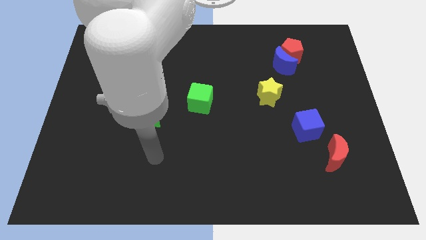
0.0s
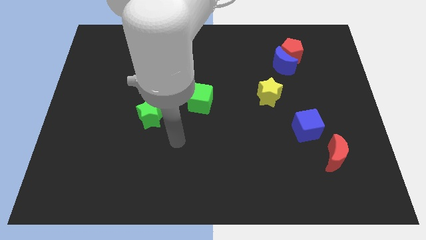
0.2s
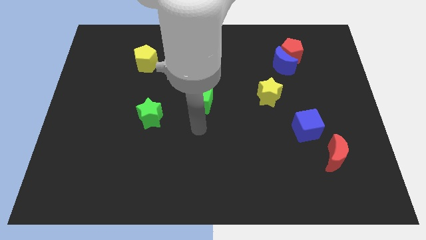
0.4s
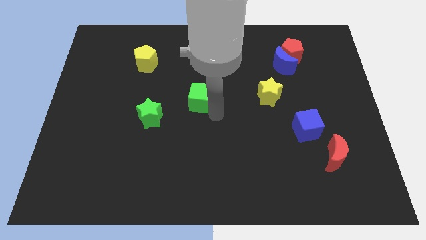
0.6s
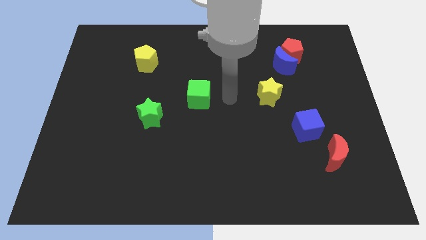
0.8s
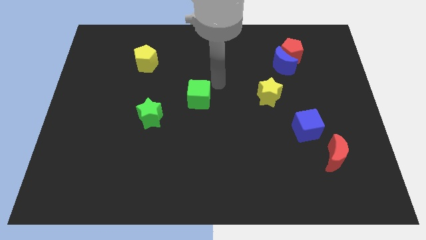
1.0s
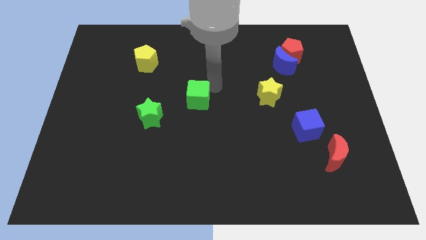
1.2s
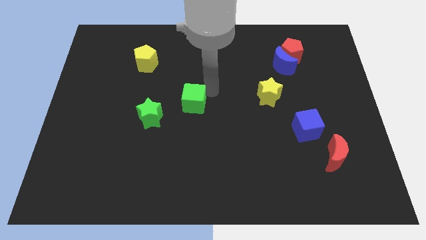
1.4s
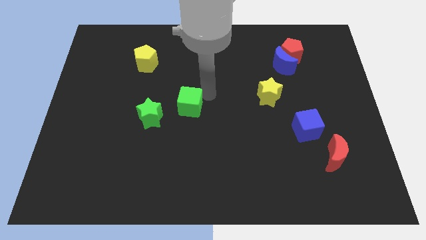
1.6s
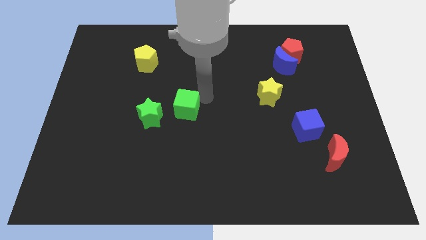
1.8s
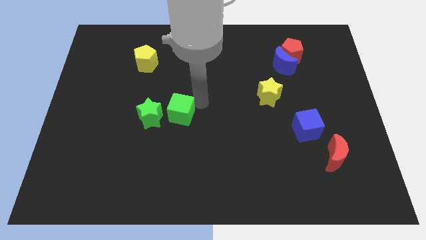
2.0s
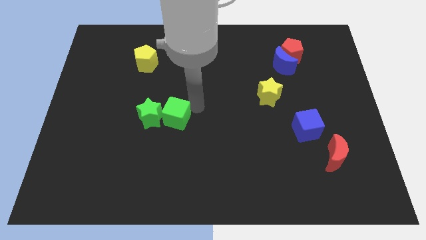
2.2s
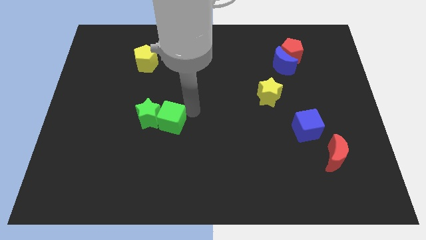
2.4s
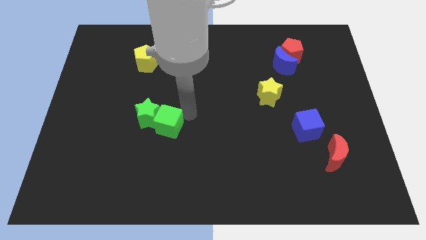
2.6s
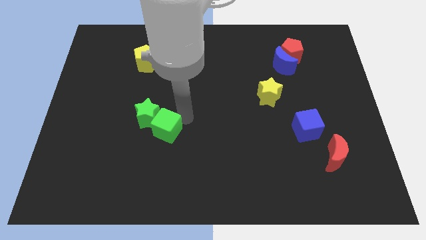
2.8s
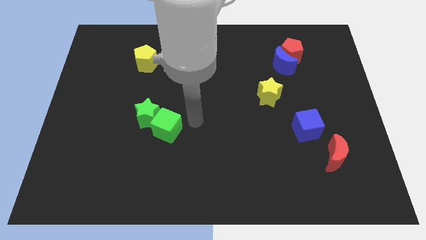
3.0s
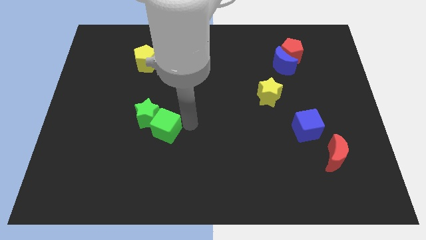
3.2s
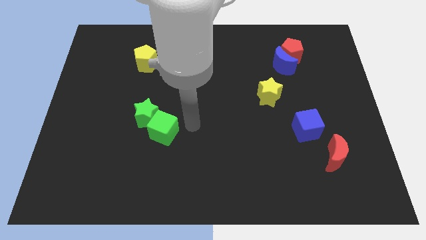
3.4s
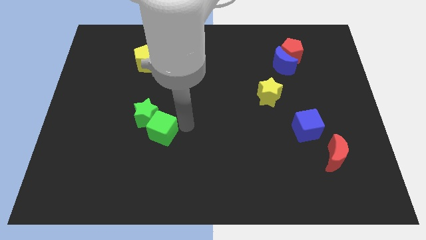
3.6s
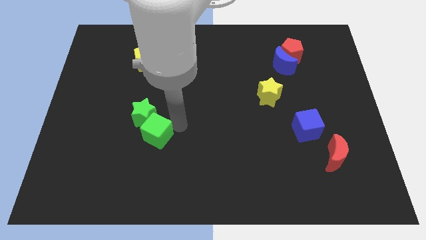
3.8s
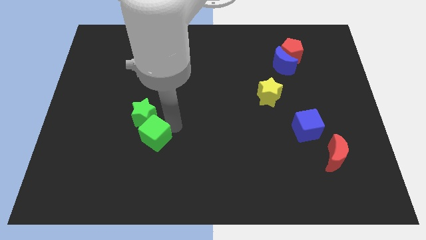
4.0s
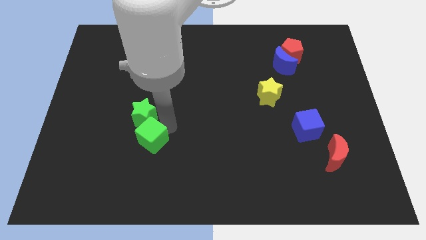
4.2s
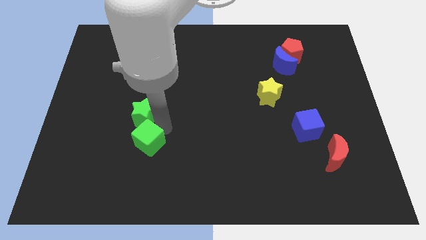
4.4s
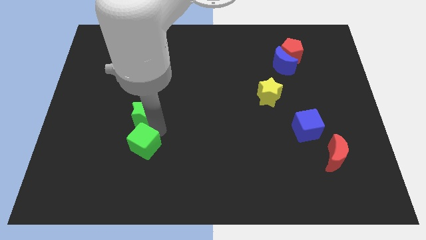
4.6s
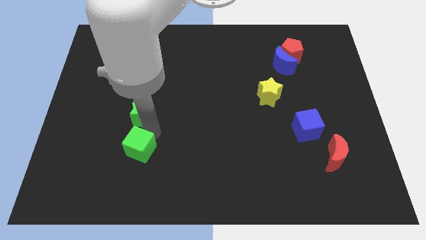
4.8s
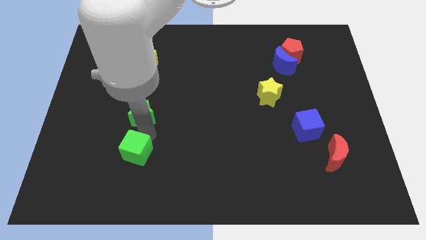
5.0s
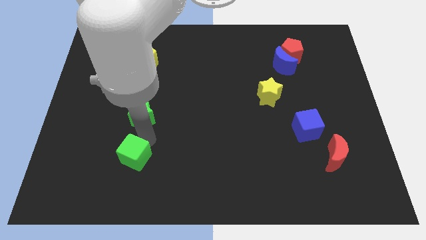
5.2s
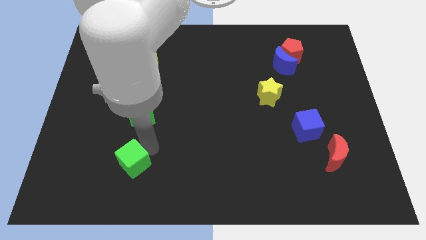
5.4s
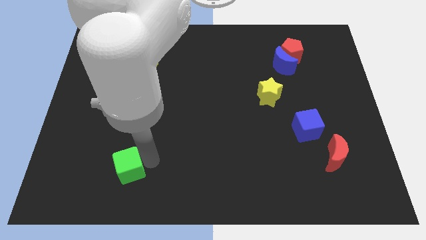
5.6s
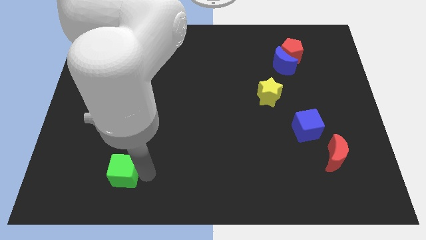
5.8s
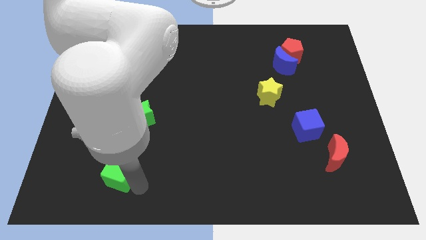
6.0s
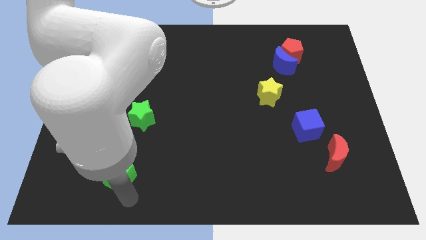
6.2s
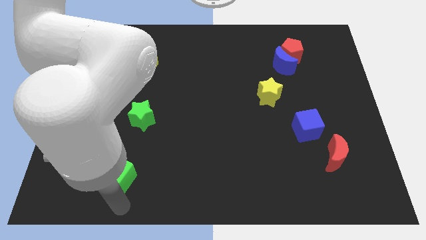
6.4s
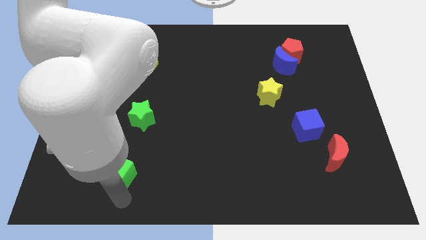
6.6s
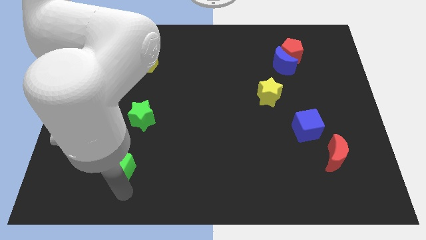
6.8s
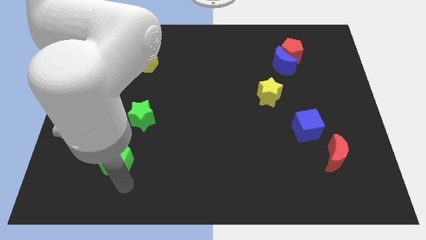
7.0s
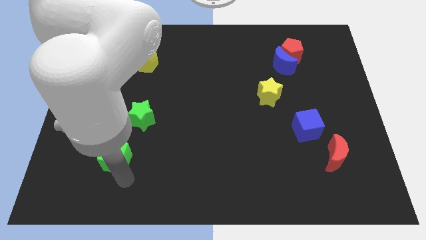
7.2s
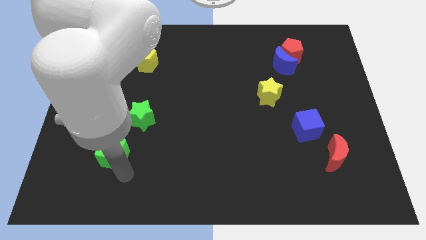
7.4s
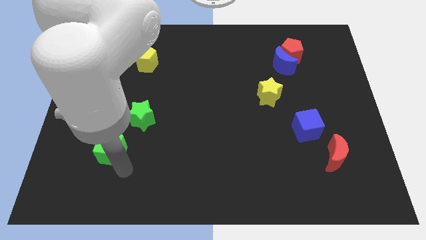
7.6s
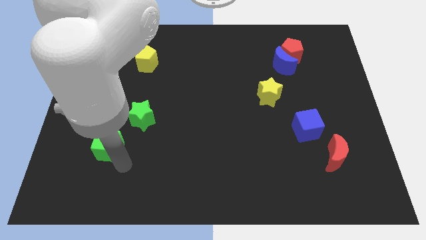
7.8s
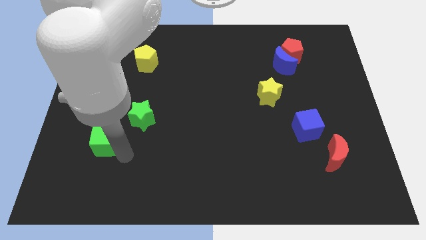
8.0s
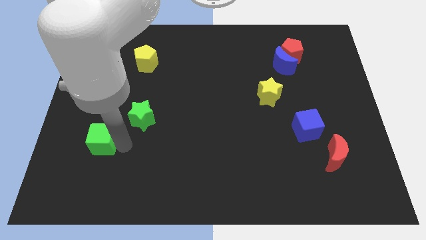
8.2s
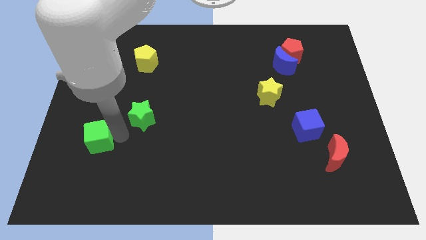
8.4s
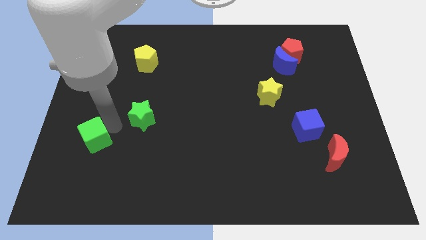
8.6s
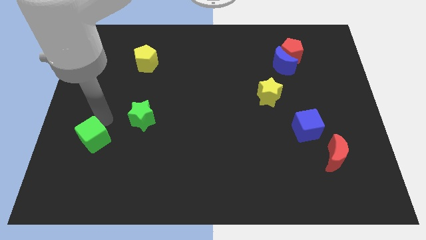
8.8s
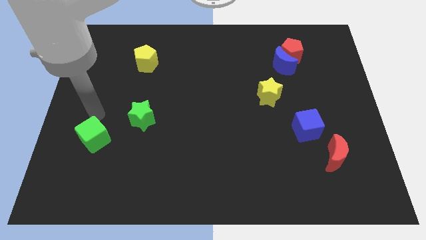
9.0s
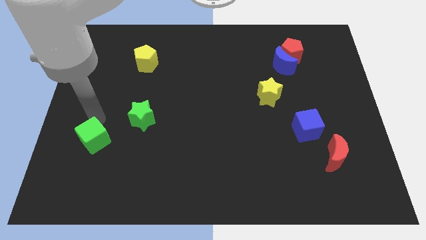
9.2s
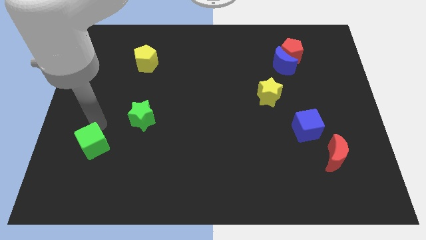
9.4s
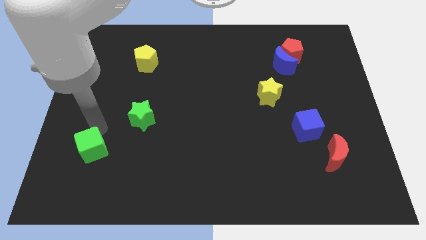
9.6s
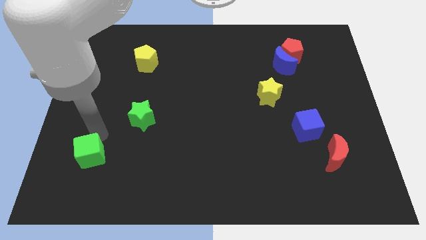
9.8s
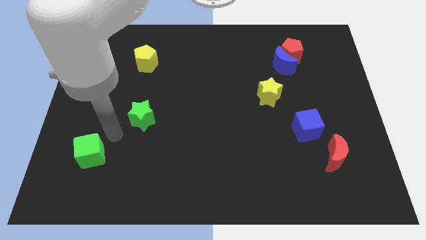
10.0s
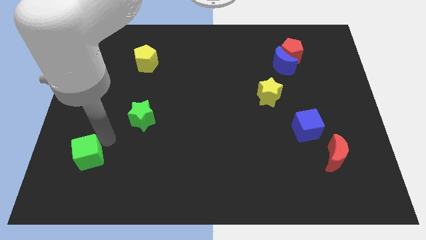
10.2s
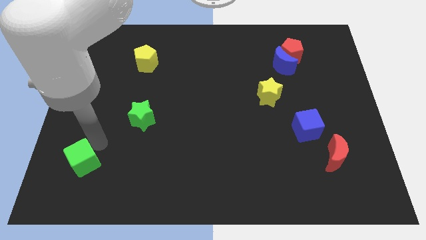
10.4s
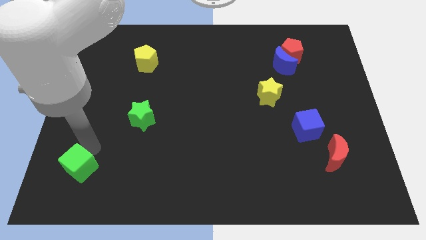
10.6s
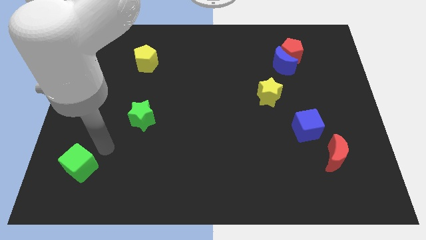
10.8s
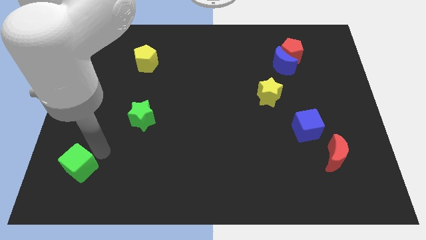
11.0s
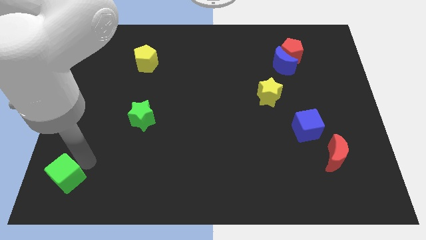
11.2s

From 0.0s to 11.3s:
move the green cube to the bottom left of the board
